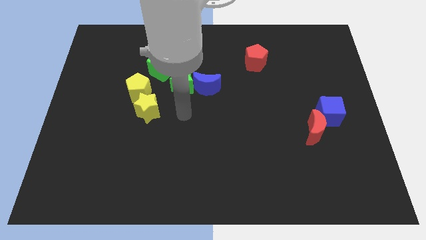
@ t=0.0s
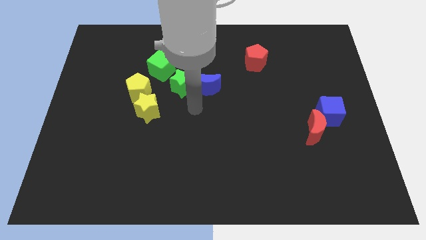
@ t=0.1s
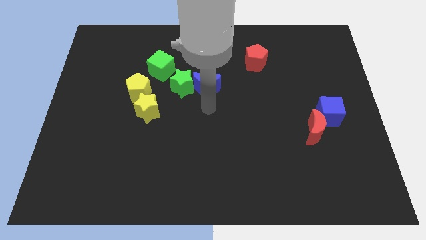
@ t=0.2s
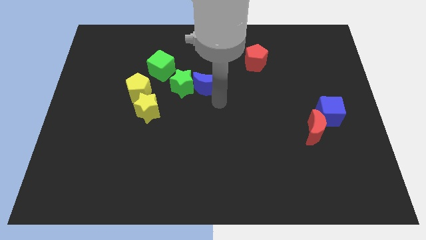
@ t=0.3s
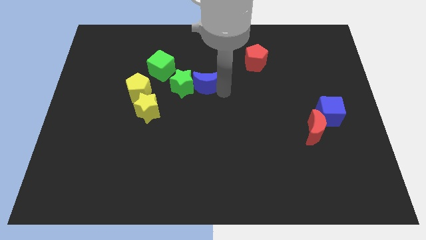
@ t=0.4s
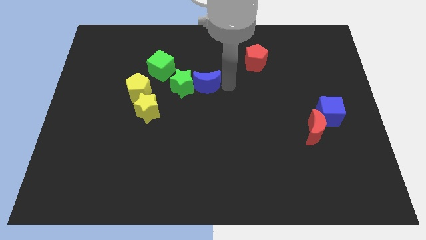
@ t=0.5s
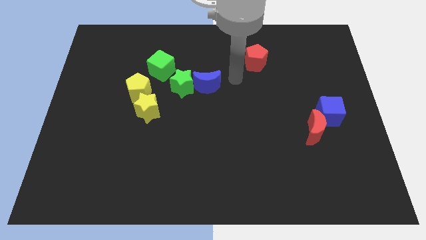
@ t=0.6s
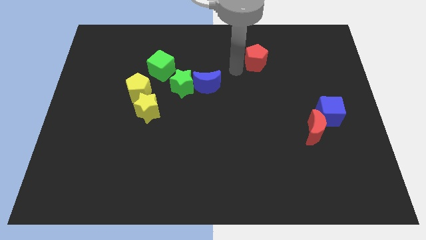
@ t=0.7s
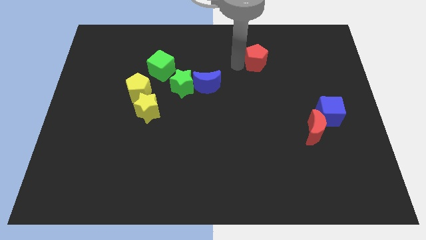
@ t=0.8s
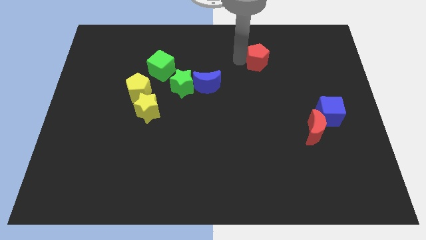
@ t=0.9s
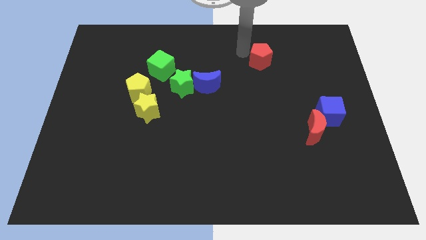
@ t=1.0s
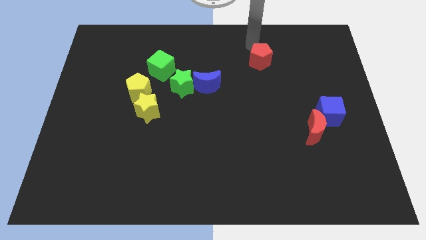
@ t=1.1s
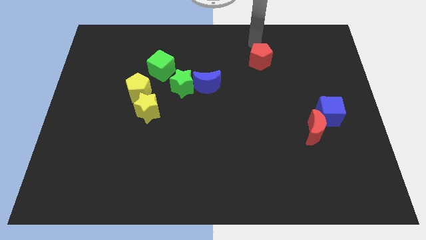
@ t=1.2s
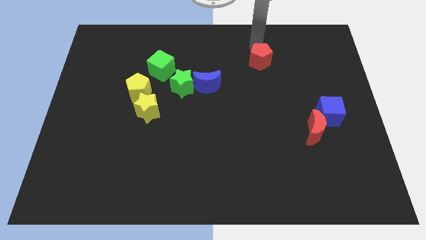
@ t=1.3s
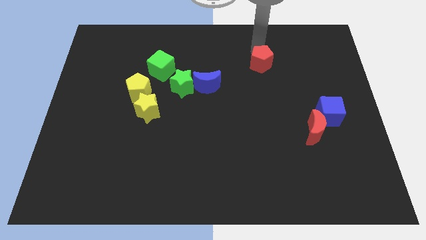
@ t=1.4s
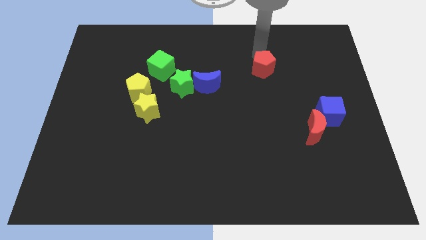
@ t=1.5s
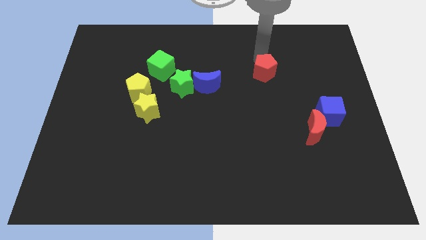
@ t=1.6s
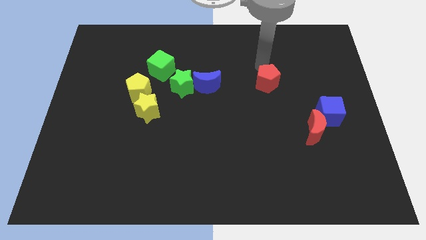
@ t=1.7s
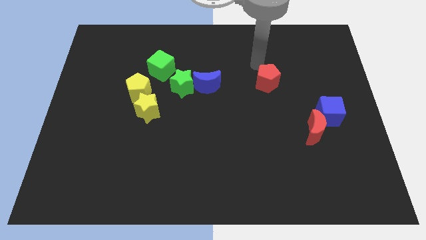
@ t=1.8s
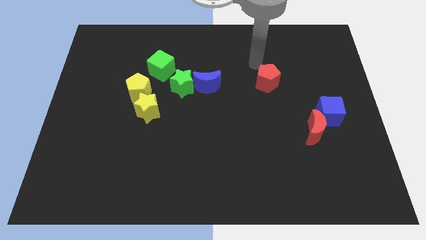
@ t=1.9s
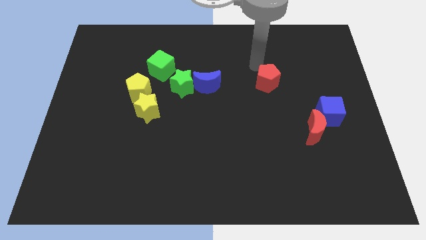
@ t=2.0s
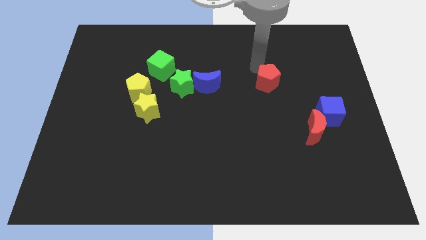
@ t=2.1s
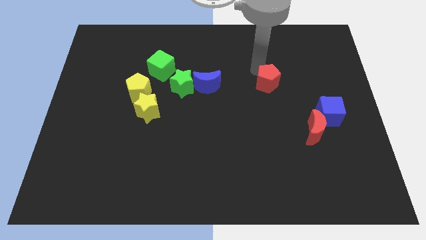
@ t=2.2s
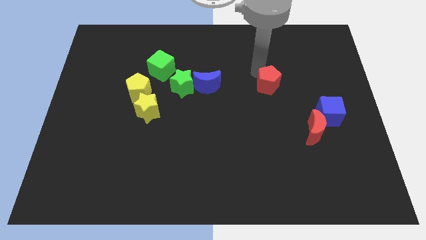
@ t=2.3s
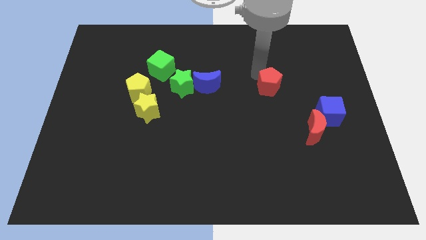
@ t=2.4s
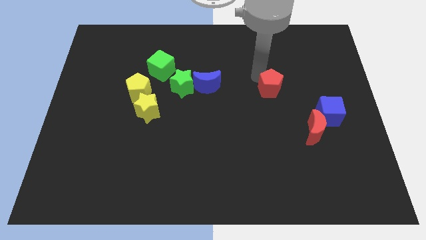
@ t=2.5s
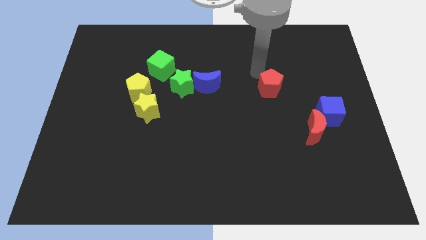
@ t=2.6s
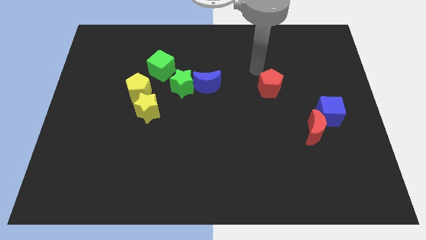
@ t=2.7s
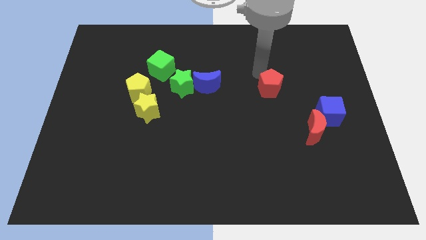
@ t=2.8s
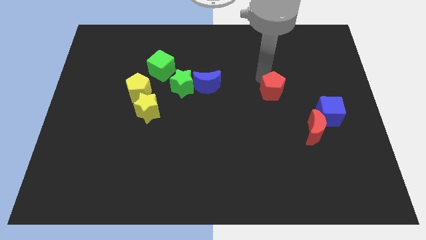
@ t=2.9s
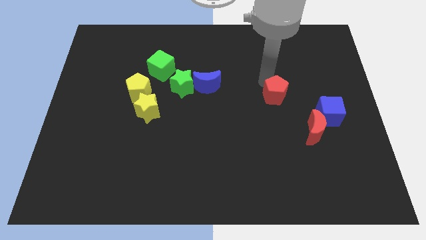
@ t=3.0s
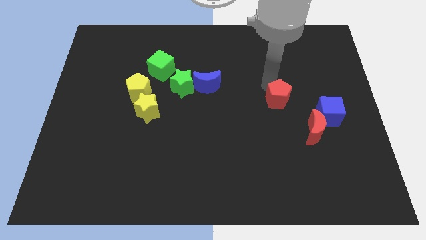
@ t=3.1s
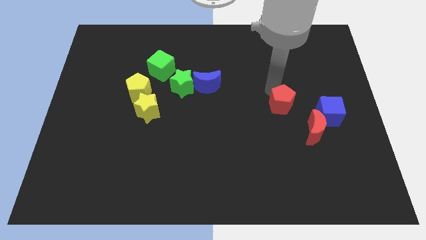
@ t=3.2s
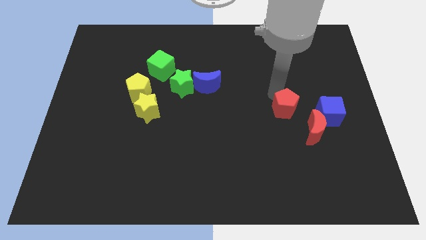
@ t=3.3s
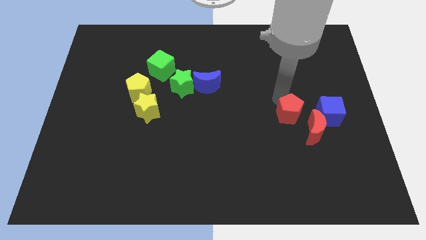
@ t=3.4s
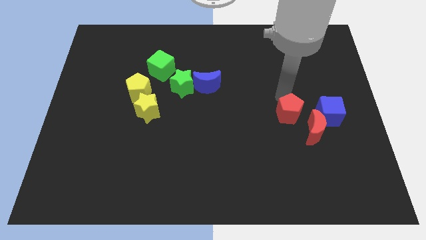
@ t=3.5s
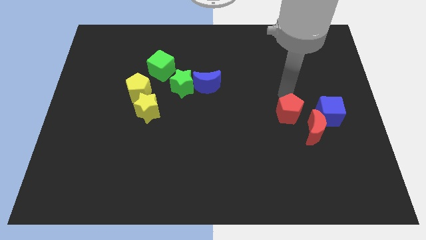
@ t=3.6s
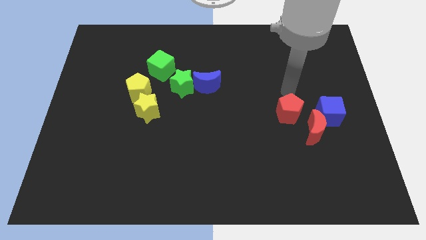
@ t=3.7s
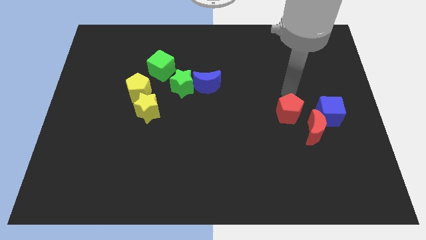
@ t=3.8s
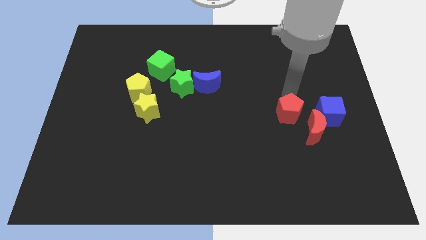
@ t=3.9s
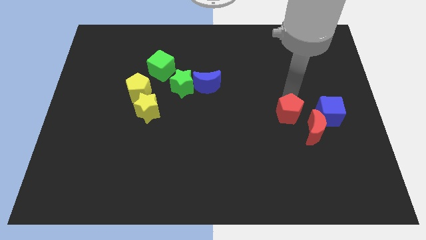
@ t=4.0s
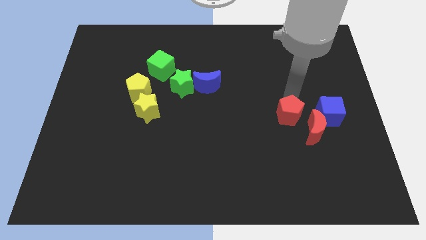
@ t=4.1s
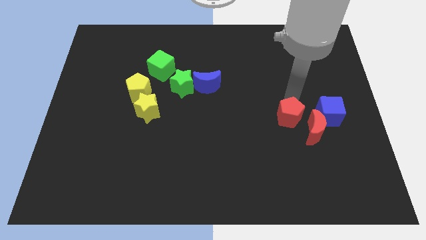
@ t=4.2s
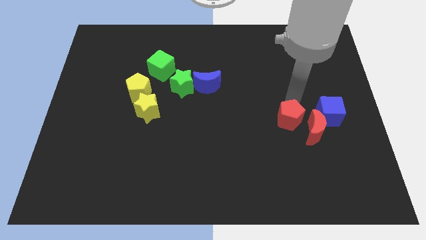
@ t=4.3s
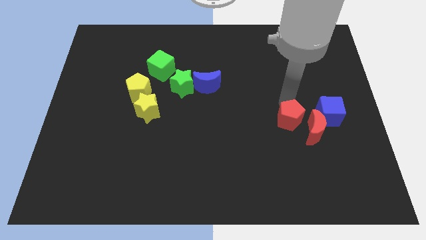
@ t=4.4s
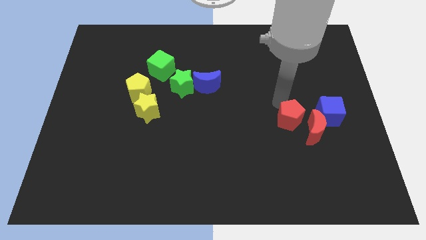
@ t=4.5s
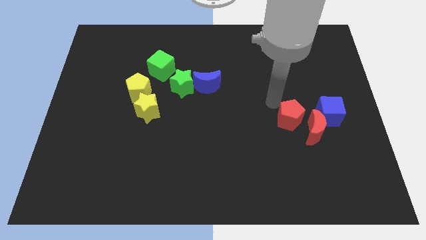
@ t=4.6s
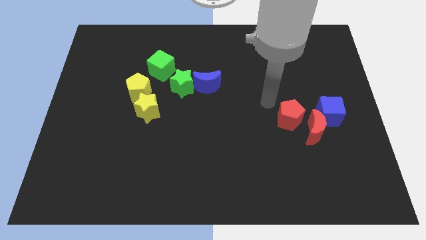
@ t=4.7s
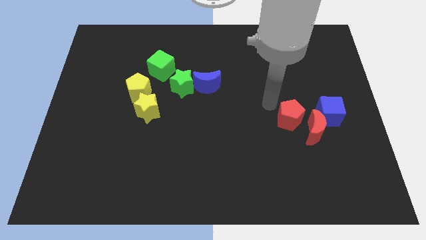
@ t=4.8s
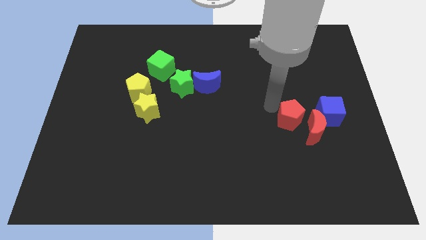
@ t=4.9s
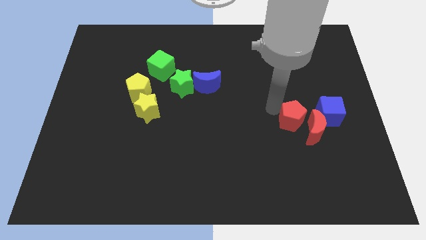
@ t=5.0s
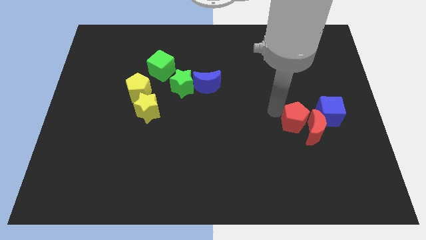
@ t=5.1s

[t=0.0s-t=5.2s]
push the red pentagon diagonally down and to the left of the blue cube

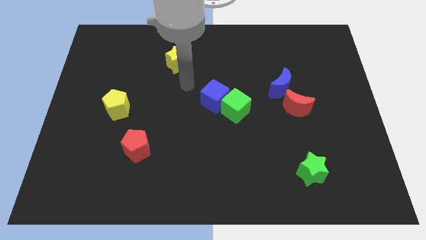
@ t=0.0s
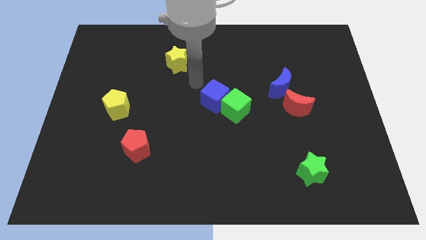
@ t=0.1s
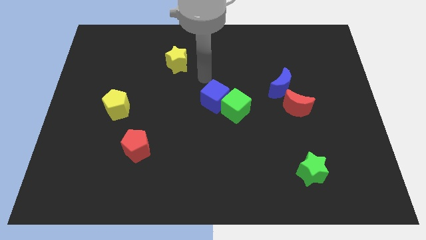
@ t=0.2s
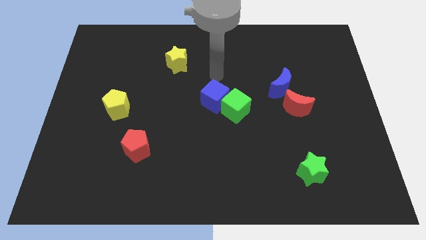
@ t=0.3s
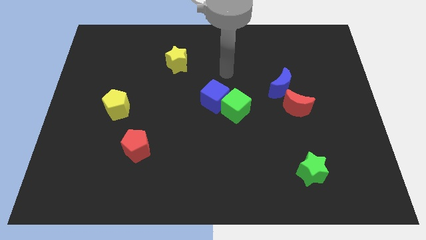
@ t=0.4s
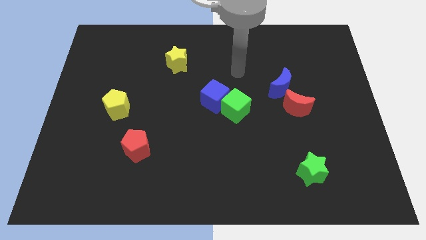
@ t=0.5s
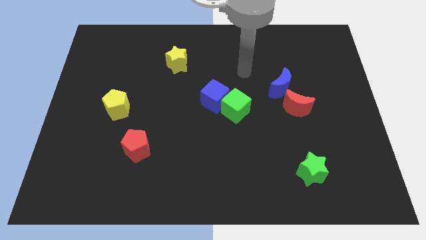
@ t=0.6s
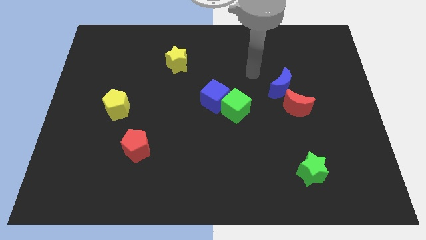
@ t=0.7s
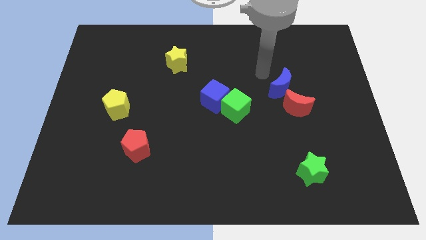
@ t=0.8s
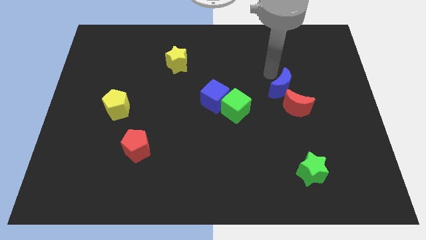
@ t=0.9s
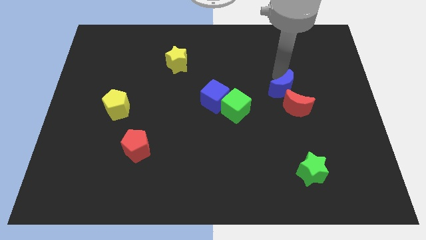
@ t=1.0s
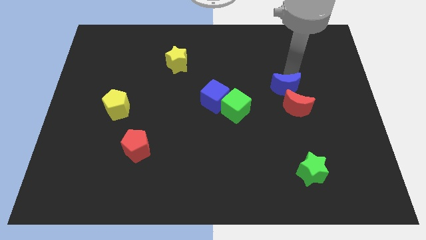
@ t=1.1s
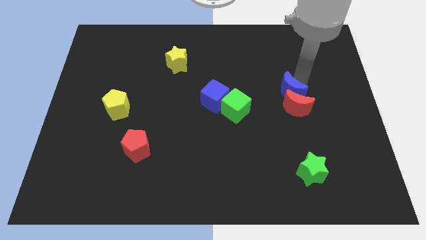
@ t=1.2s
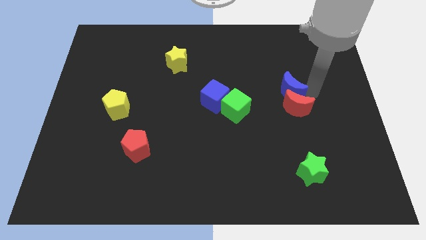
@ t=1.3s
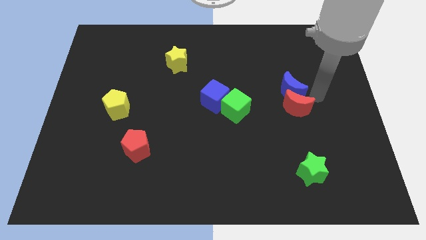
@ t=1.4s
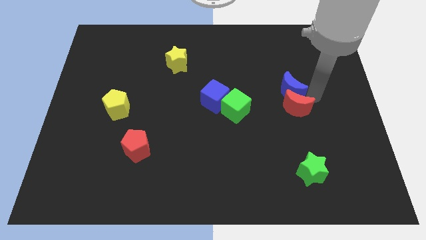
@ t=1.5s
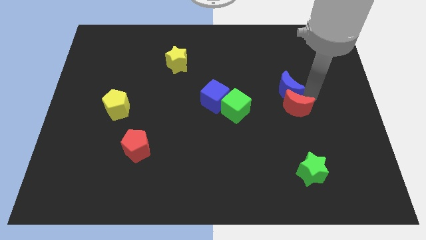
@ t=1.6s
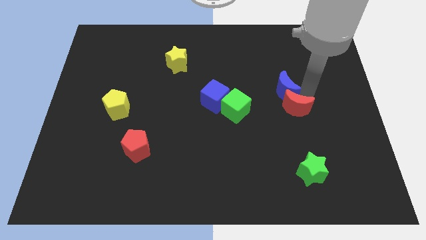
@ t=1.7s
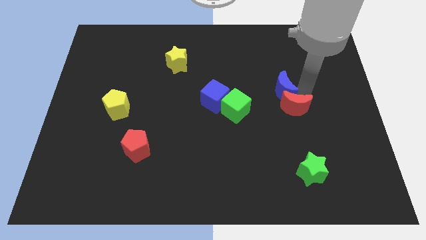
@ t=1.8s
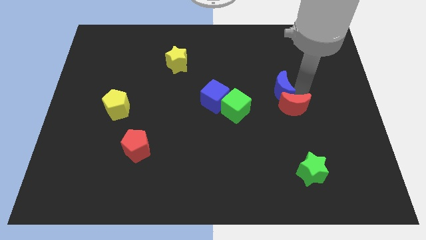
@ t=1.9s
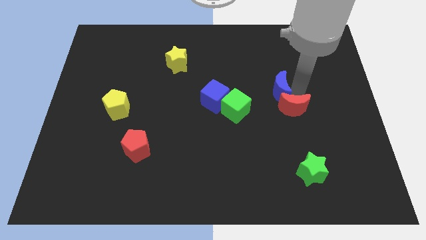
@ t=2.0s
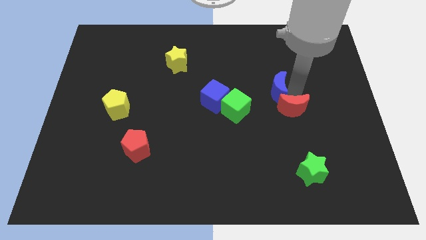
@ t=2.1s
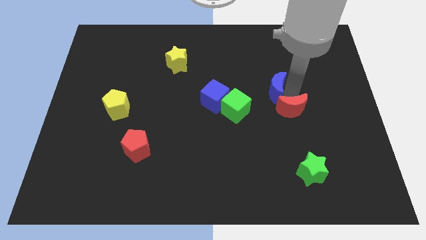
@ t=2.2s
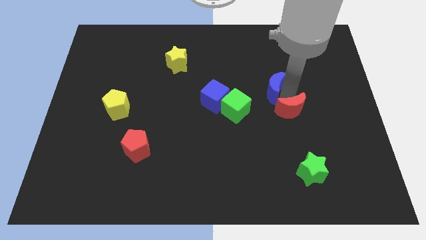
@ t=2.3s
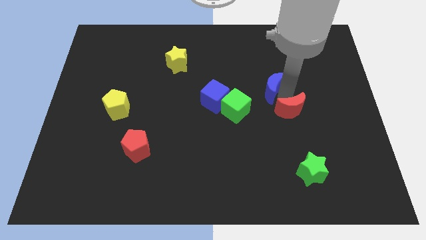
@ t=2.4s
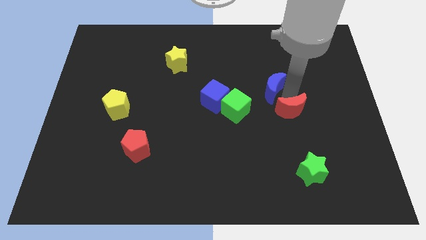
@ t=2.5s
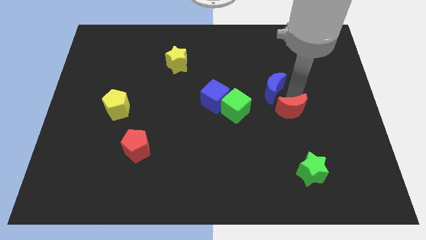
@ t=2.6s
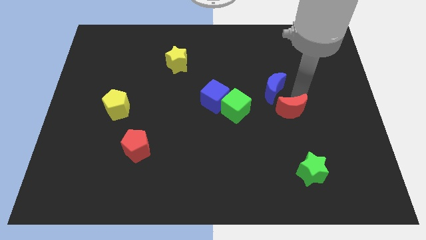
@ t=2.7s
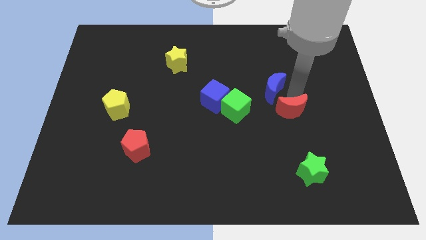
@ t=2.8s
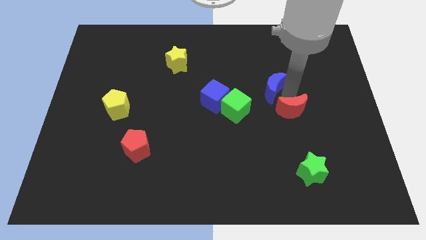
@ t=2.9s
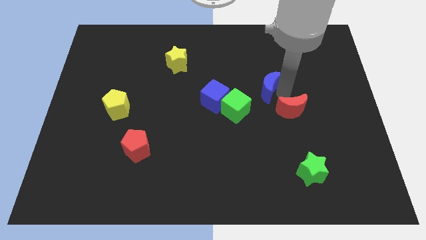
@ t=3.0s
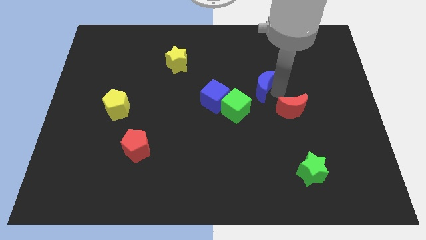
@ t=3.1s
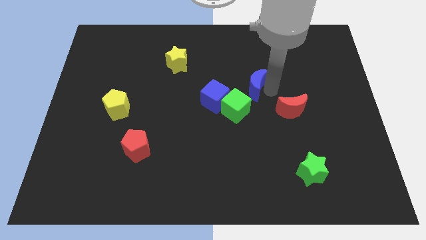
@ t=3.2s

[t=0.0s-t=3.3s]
slide the blue moon to the top right side of the blue cube
